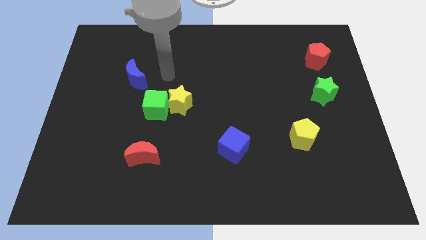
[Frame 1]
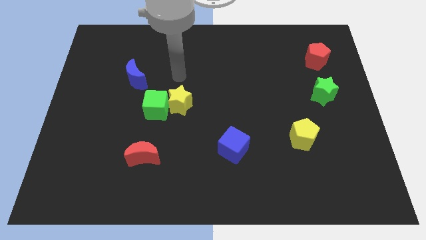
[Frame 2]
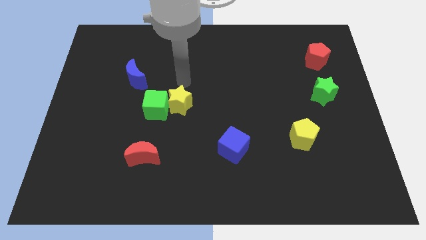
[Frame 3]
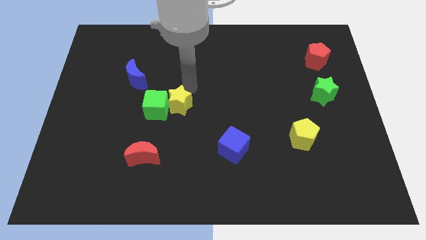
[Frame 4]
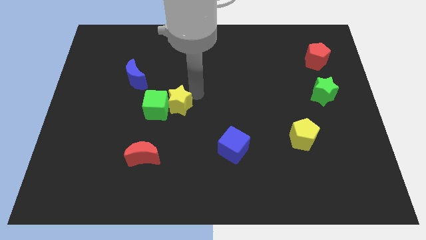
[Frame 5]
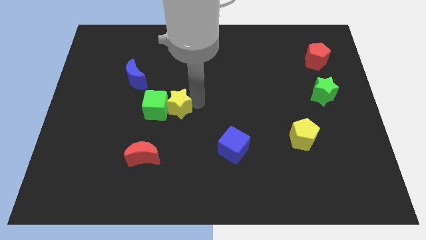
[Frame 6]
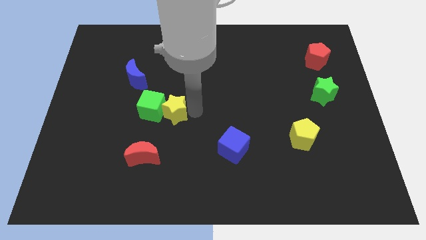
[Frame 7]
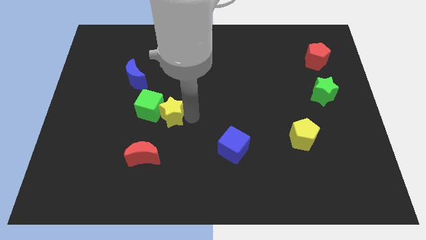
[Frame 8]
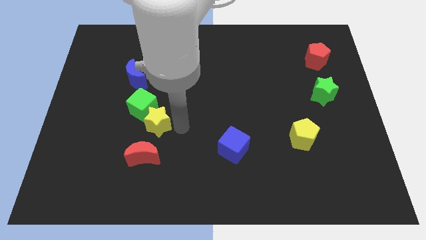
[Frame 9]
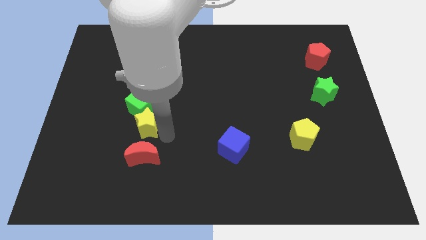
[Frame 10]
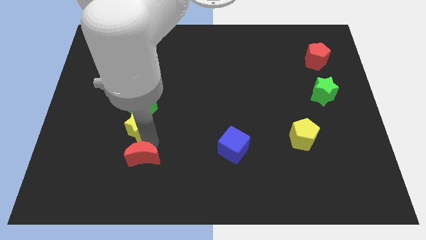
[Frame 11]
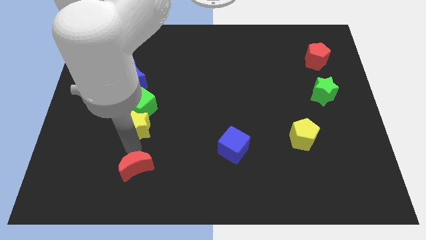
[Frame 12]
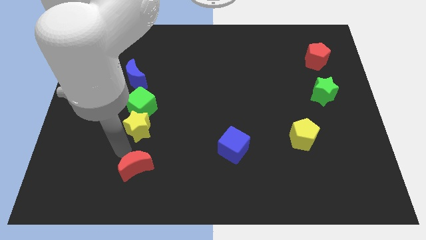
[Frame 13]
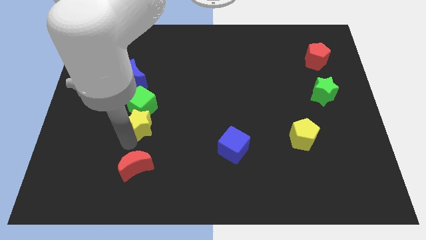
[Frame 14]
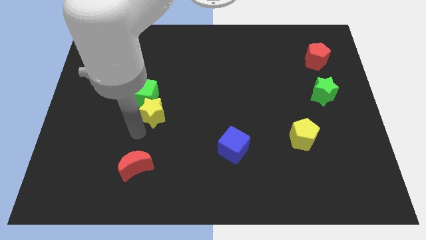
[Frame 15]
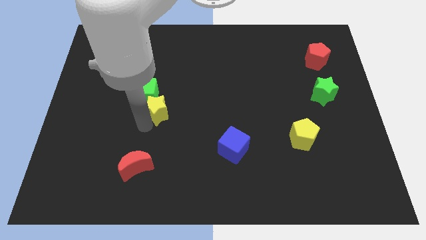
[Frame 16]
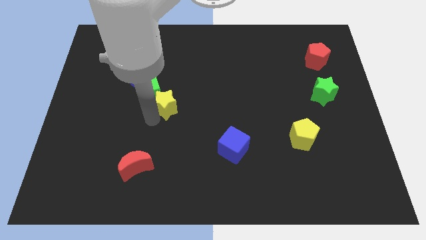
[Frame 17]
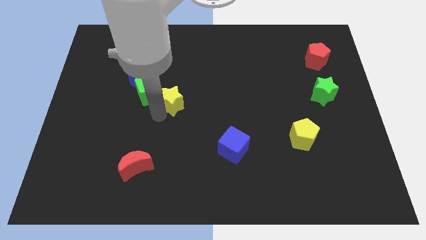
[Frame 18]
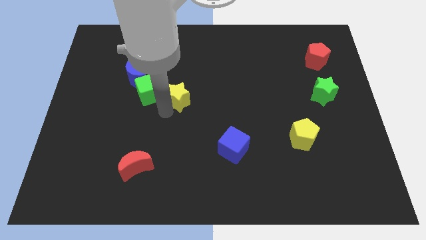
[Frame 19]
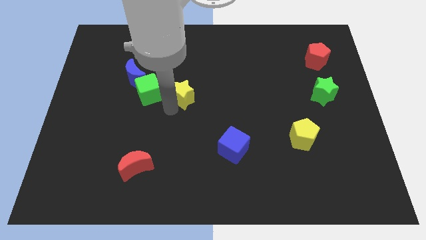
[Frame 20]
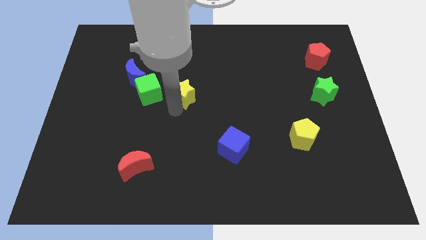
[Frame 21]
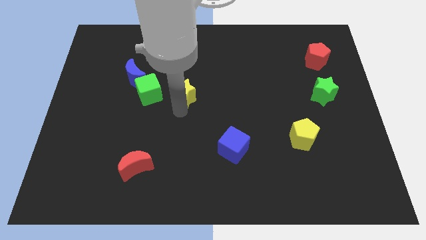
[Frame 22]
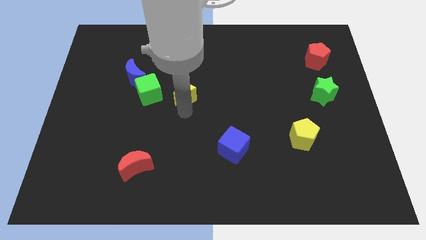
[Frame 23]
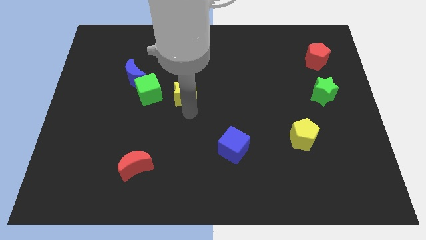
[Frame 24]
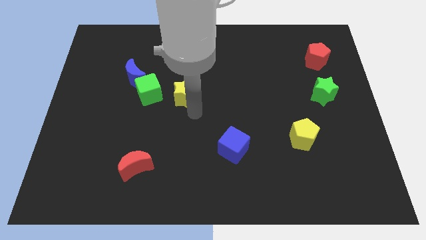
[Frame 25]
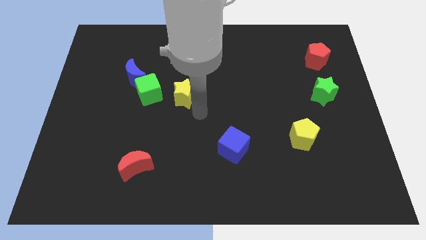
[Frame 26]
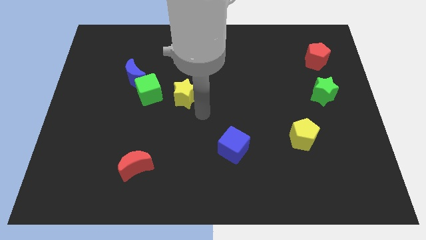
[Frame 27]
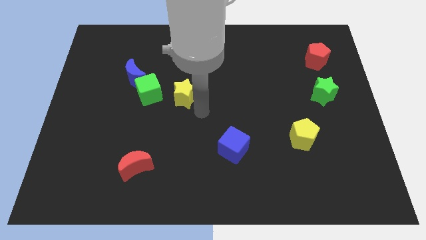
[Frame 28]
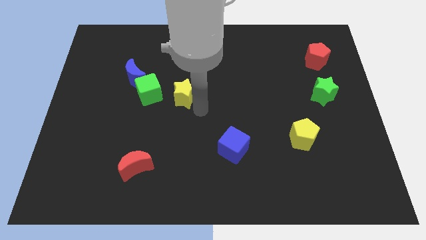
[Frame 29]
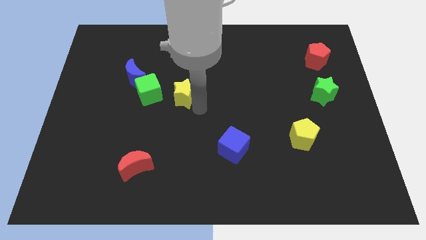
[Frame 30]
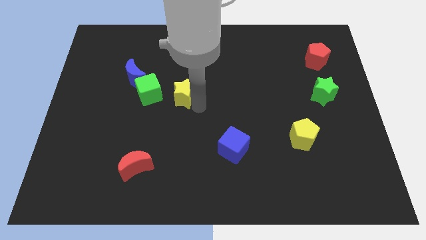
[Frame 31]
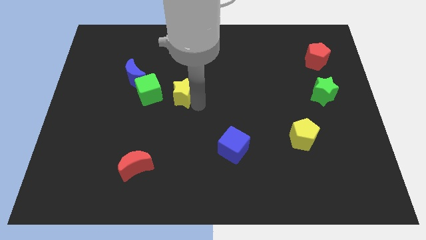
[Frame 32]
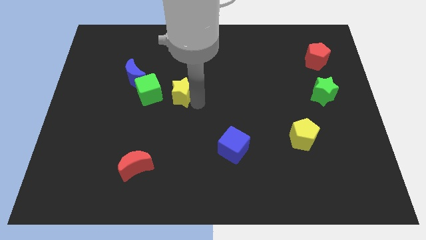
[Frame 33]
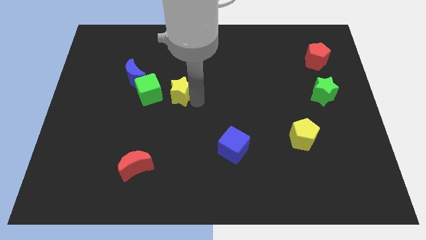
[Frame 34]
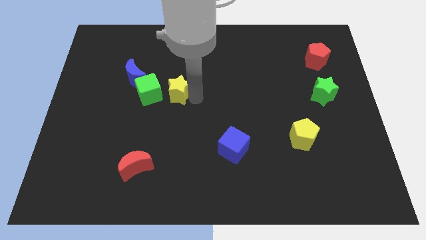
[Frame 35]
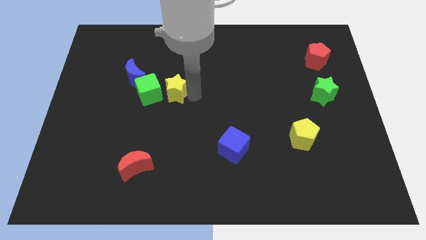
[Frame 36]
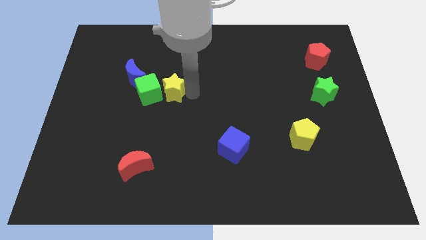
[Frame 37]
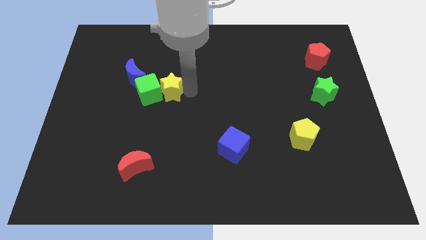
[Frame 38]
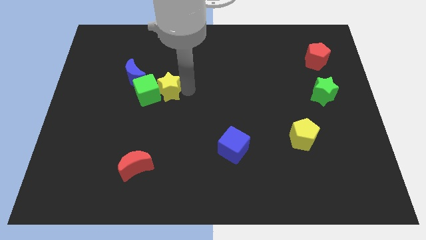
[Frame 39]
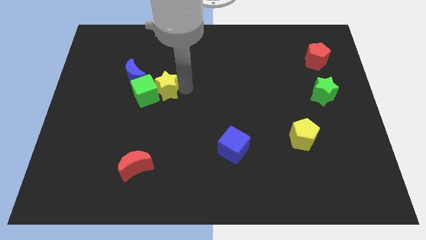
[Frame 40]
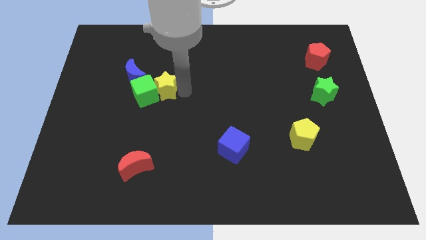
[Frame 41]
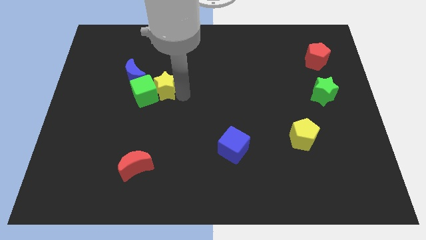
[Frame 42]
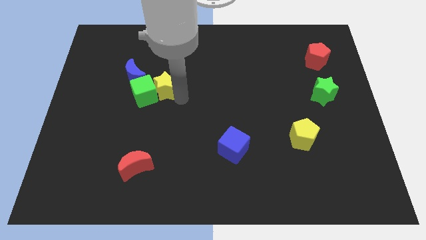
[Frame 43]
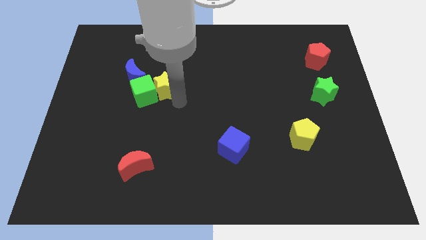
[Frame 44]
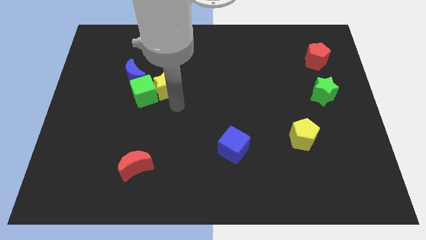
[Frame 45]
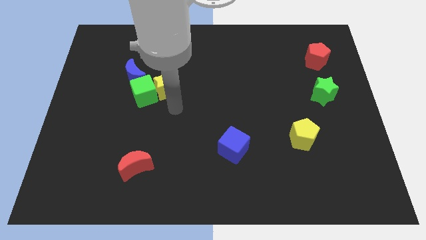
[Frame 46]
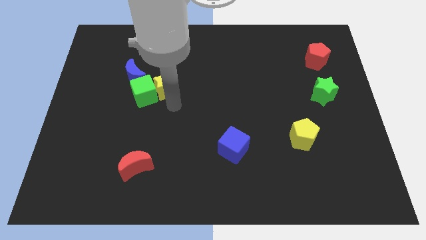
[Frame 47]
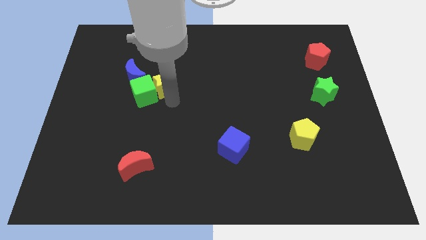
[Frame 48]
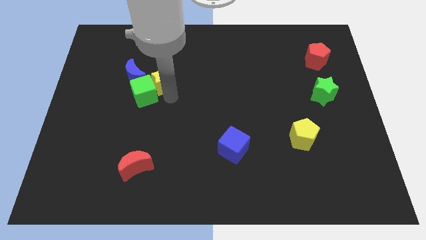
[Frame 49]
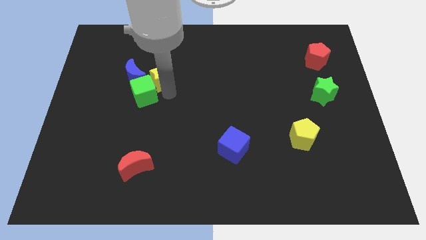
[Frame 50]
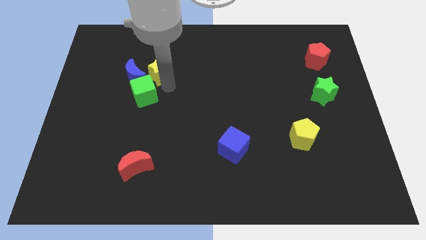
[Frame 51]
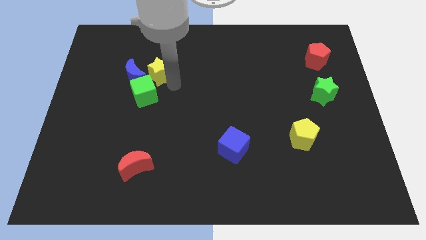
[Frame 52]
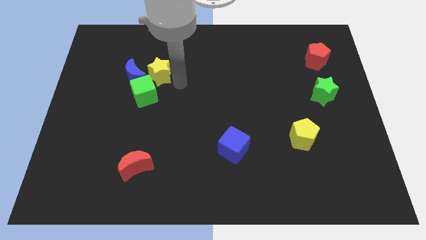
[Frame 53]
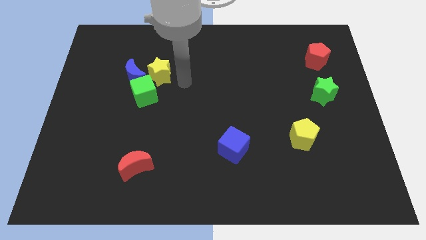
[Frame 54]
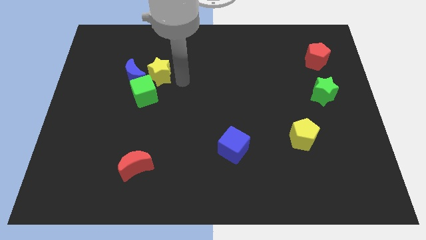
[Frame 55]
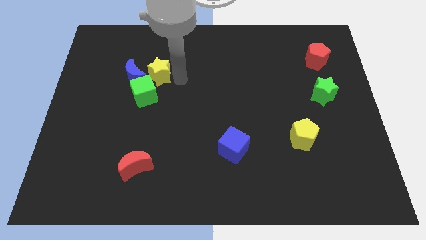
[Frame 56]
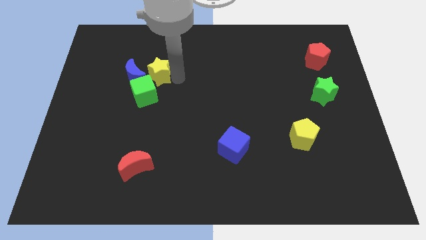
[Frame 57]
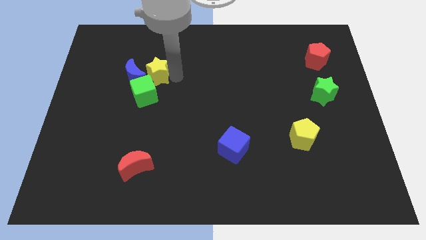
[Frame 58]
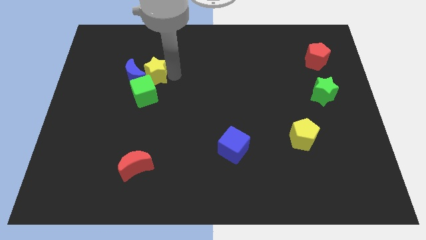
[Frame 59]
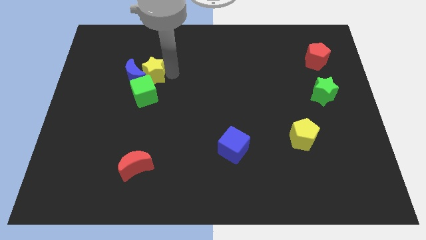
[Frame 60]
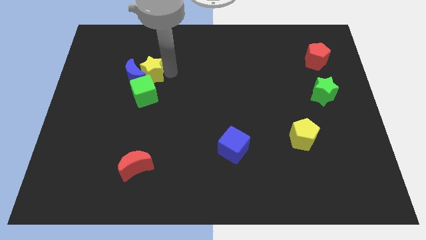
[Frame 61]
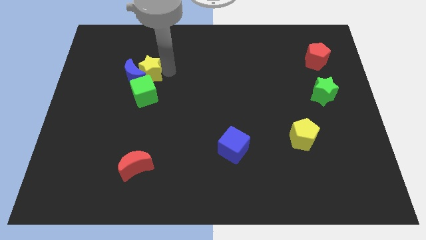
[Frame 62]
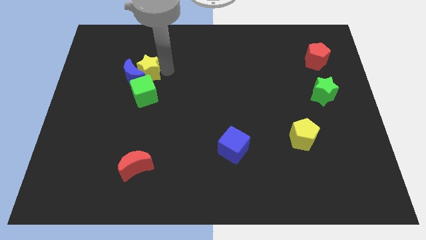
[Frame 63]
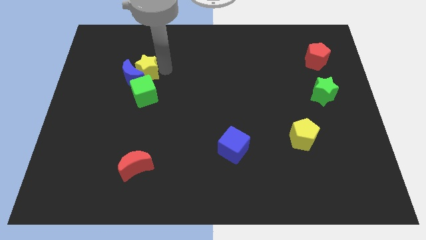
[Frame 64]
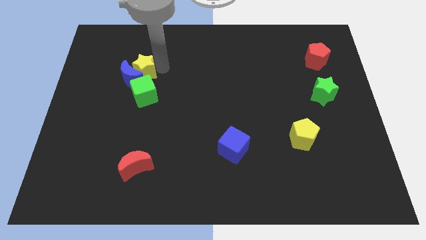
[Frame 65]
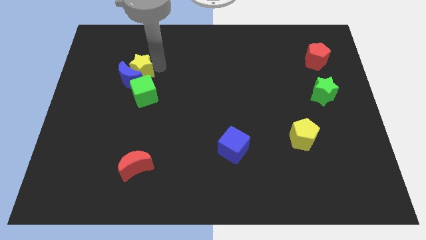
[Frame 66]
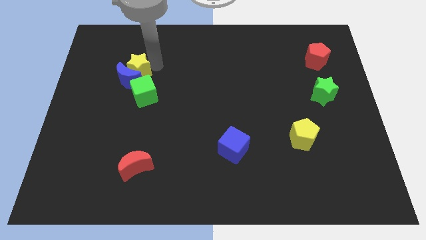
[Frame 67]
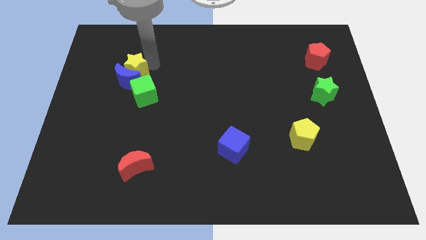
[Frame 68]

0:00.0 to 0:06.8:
slide the yellow star to the top left of the blue moon
